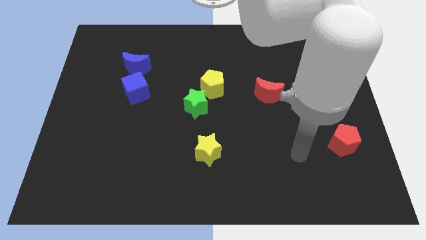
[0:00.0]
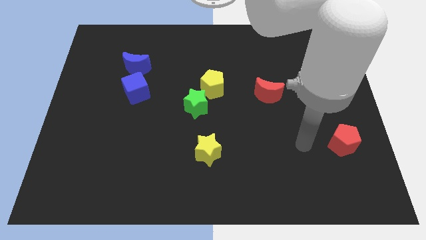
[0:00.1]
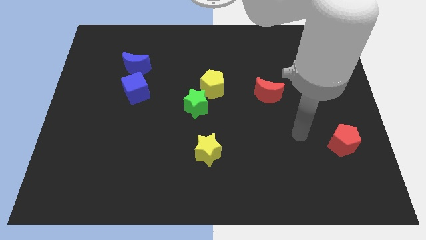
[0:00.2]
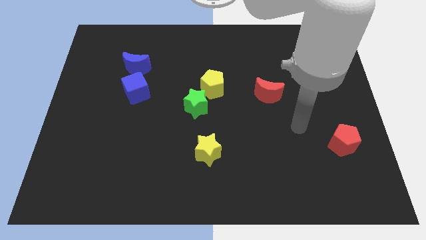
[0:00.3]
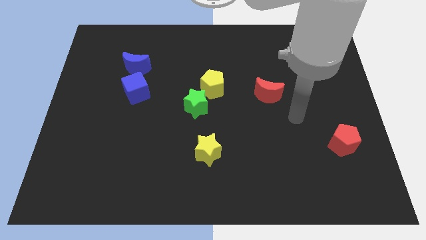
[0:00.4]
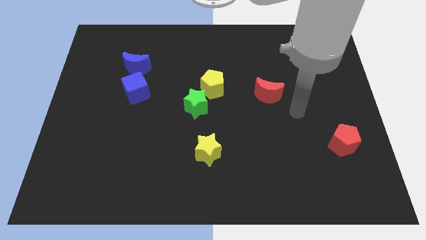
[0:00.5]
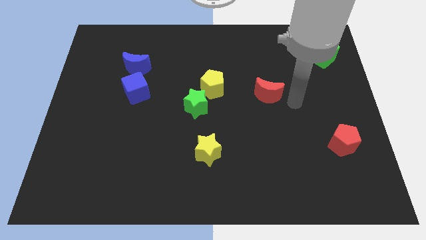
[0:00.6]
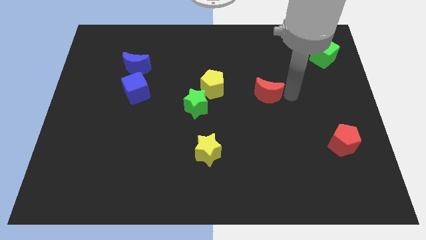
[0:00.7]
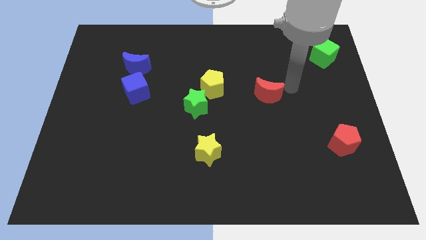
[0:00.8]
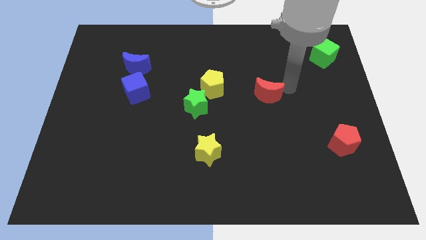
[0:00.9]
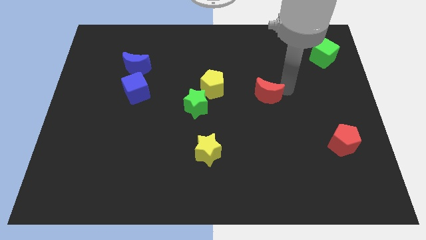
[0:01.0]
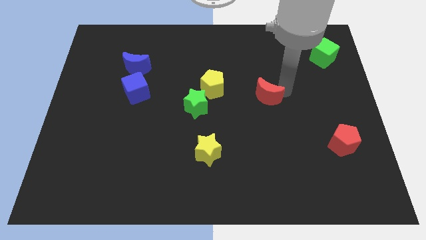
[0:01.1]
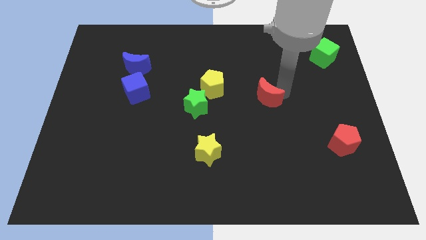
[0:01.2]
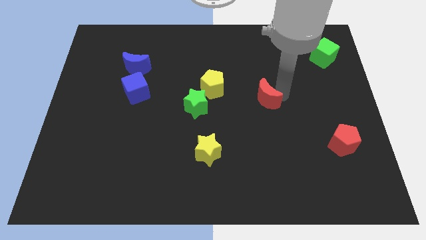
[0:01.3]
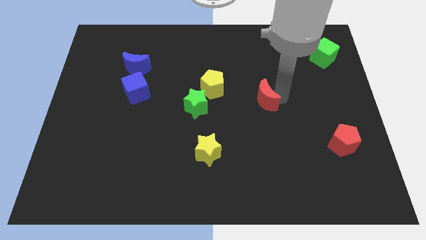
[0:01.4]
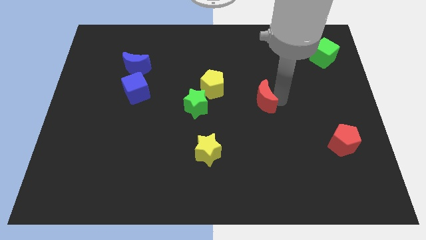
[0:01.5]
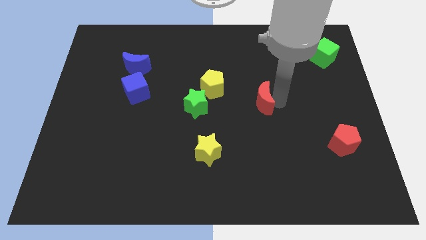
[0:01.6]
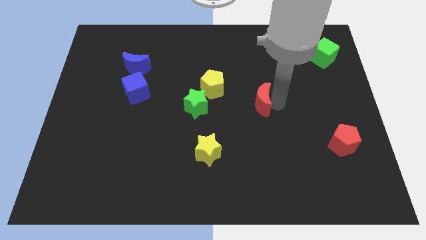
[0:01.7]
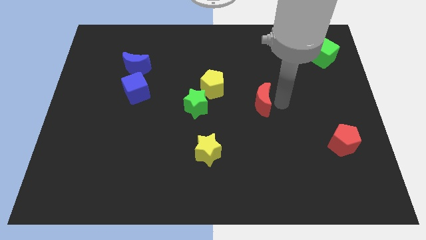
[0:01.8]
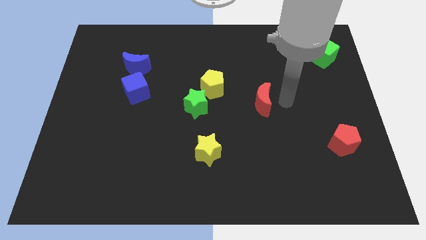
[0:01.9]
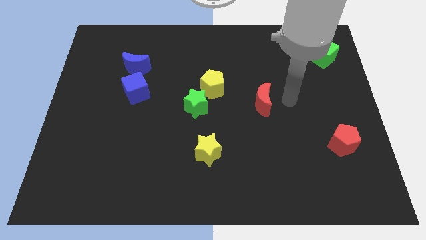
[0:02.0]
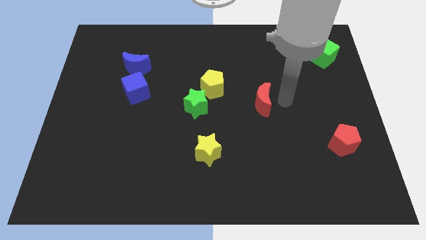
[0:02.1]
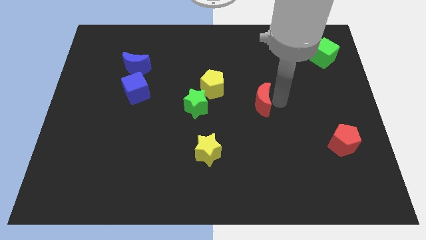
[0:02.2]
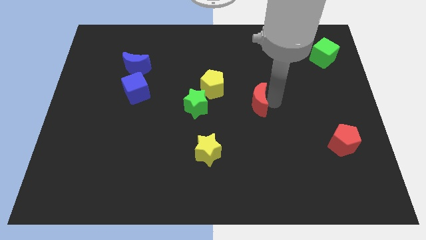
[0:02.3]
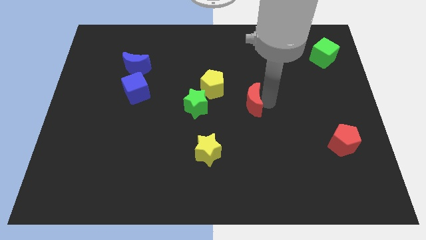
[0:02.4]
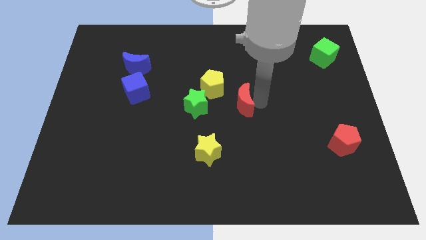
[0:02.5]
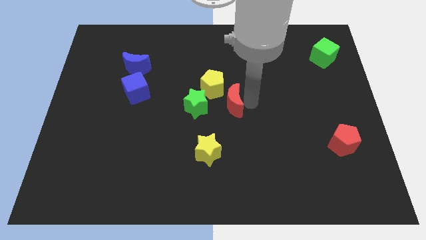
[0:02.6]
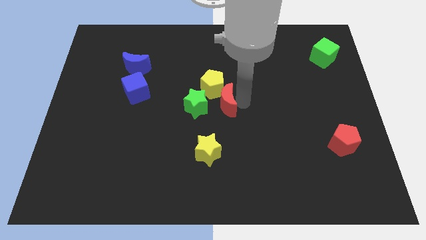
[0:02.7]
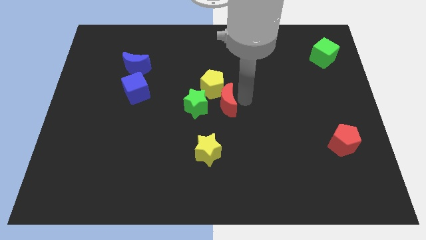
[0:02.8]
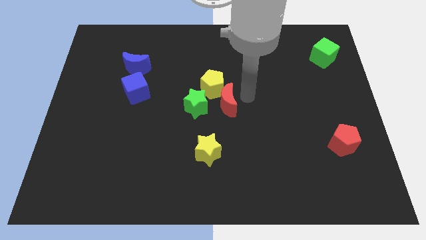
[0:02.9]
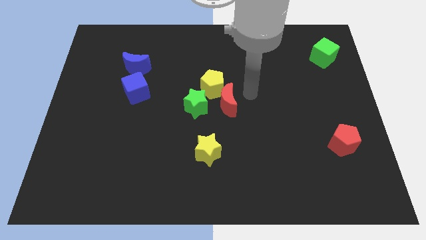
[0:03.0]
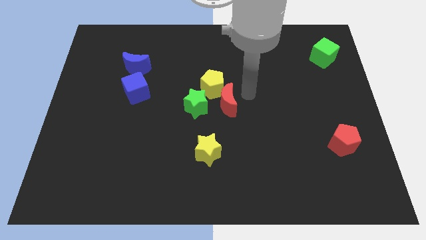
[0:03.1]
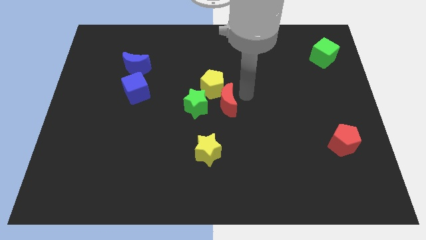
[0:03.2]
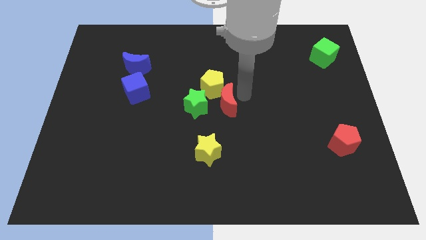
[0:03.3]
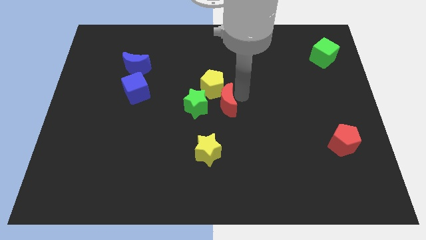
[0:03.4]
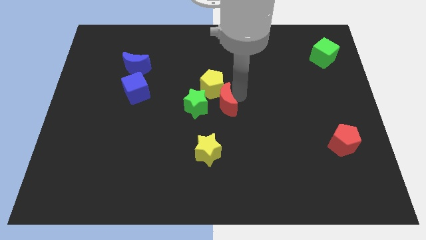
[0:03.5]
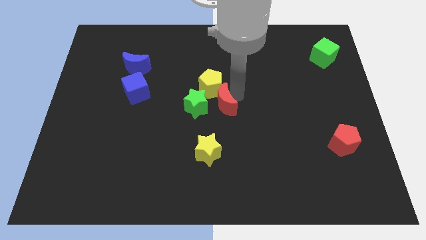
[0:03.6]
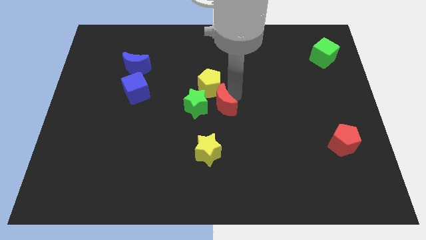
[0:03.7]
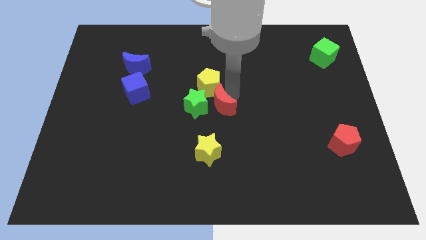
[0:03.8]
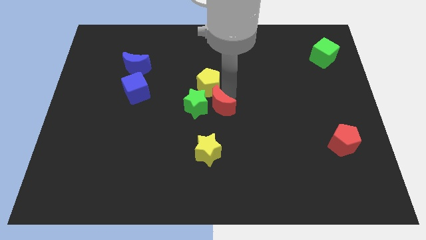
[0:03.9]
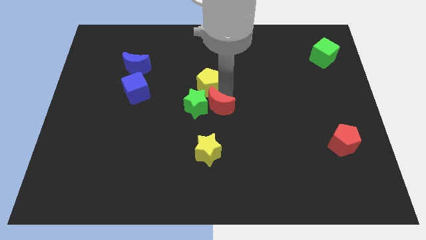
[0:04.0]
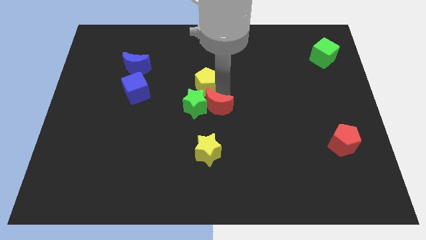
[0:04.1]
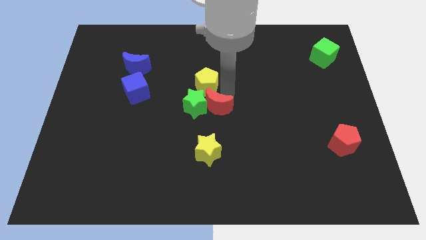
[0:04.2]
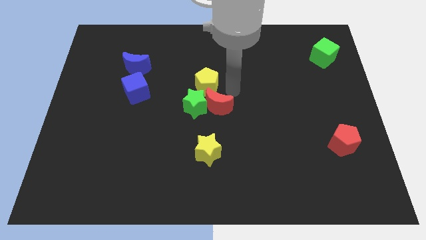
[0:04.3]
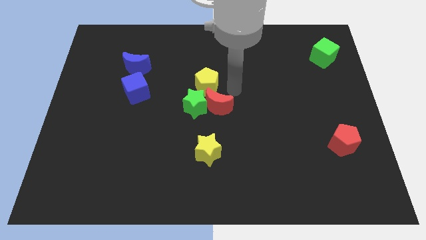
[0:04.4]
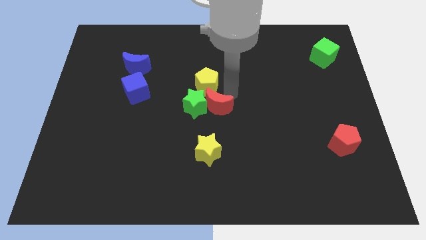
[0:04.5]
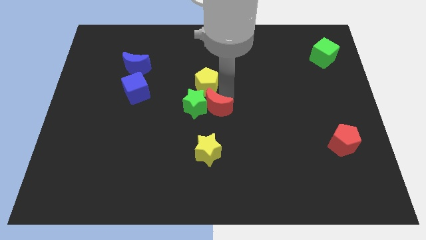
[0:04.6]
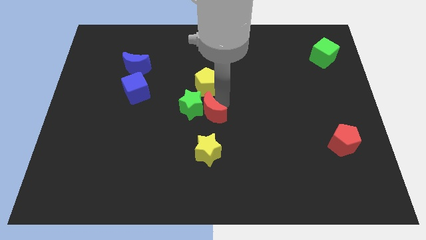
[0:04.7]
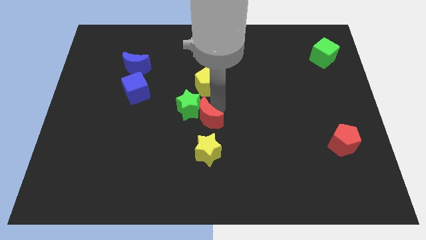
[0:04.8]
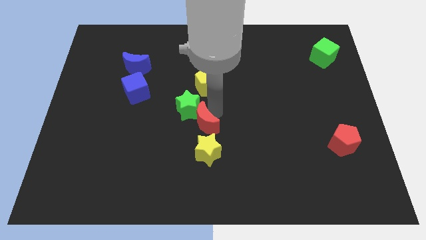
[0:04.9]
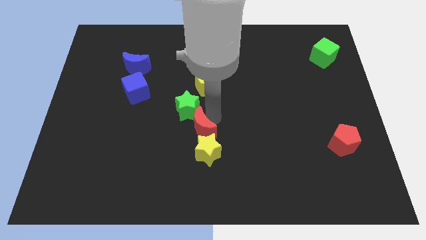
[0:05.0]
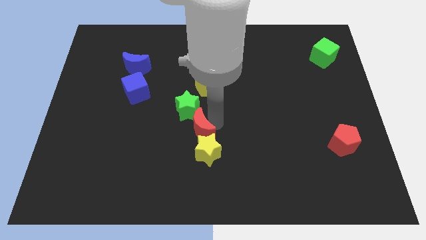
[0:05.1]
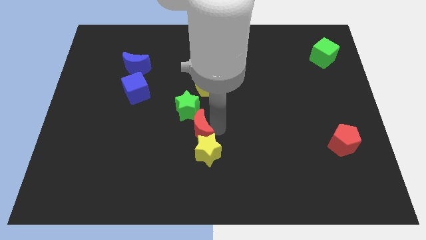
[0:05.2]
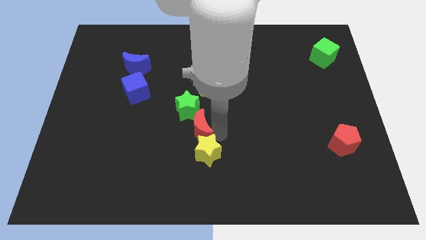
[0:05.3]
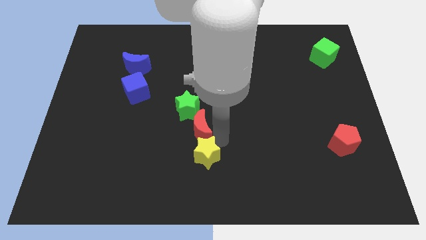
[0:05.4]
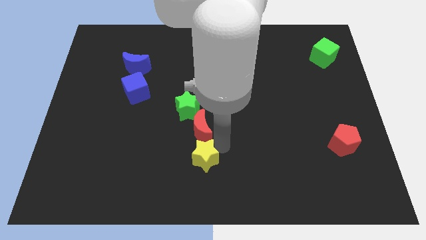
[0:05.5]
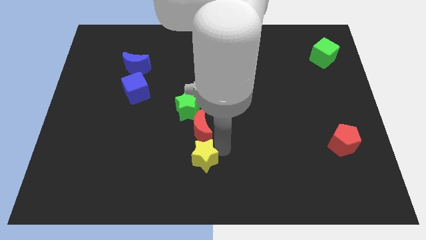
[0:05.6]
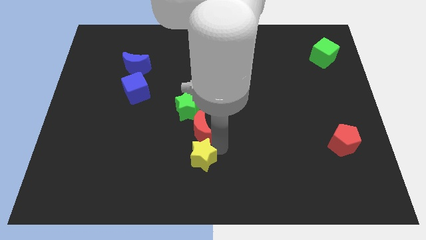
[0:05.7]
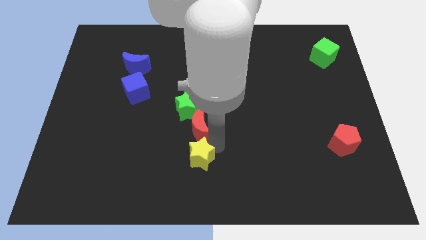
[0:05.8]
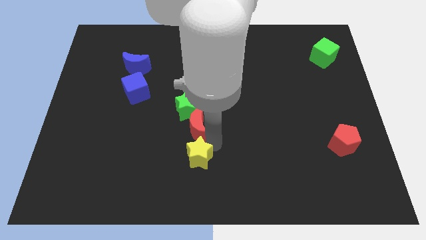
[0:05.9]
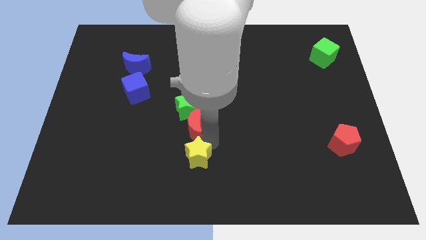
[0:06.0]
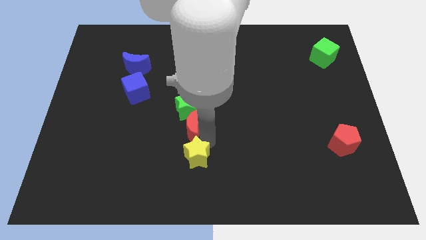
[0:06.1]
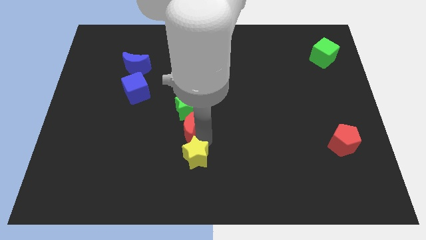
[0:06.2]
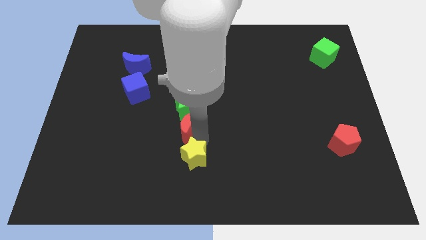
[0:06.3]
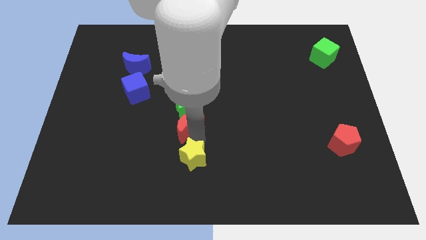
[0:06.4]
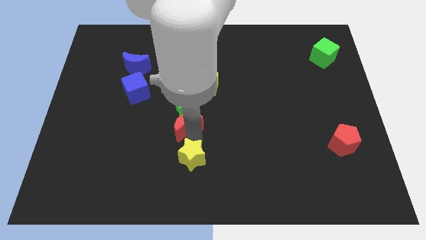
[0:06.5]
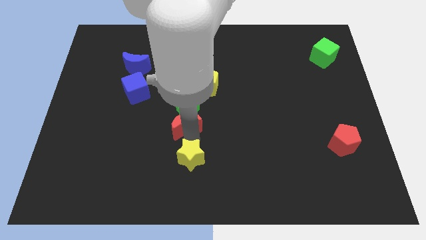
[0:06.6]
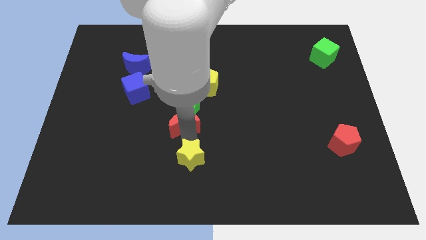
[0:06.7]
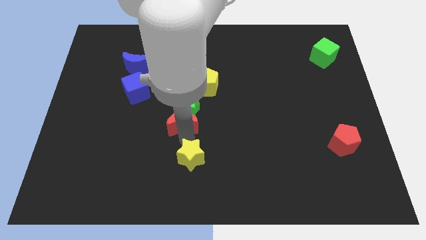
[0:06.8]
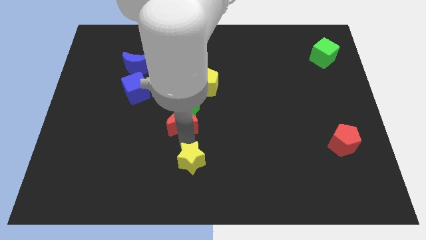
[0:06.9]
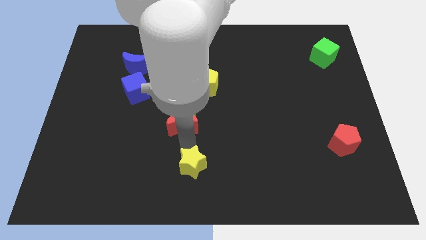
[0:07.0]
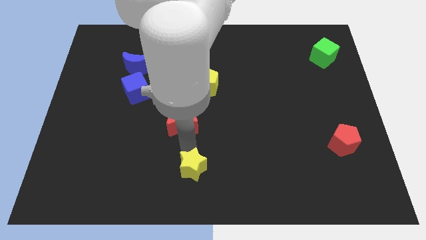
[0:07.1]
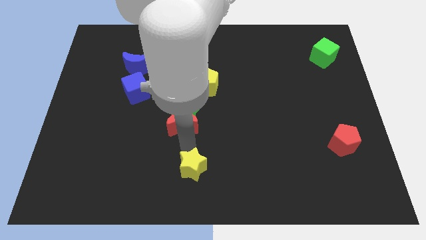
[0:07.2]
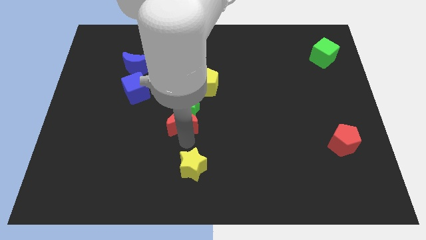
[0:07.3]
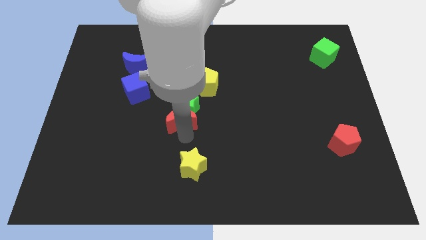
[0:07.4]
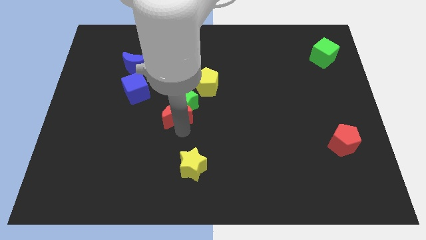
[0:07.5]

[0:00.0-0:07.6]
put the red moon to the bottom left side of the yellow pentagon
